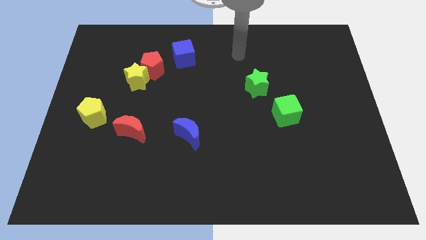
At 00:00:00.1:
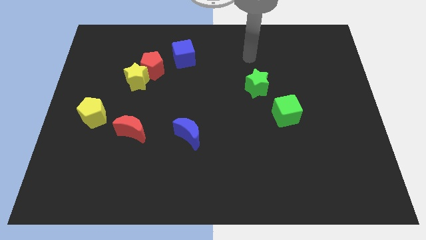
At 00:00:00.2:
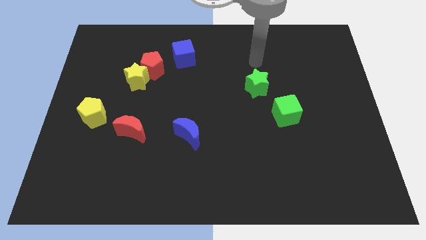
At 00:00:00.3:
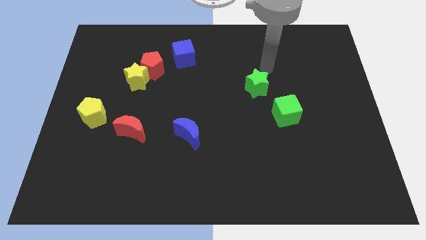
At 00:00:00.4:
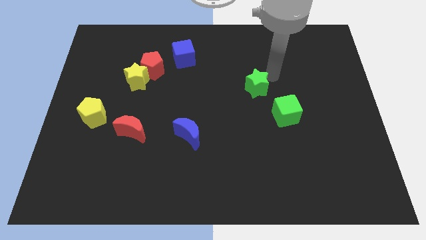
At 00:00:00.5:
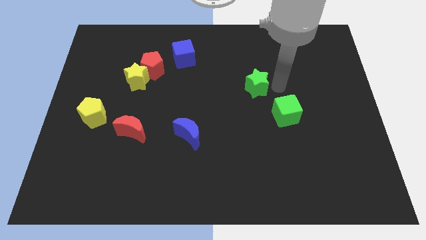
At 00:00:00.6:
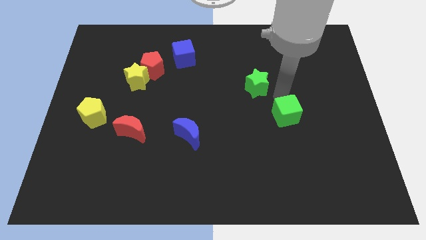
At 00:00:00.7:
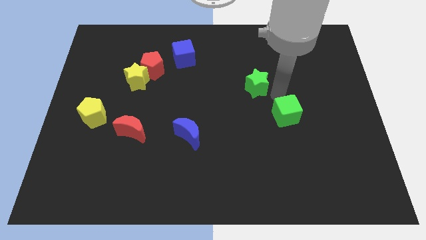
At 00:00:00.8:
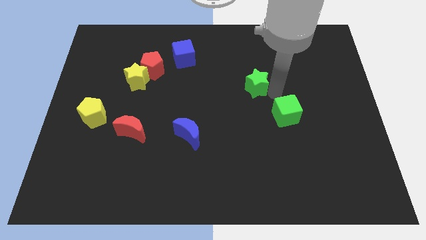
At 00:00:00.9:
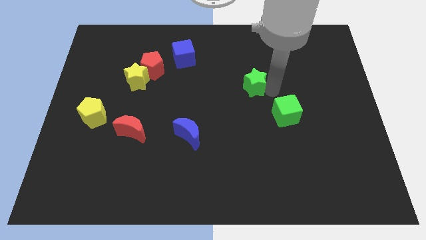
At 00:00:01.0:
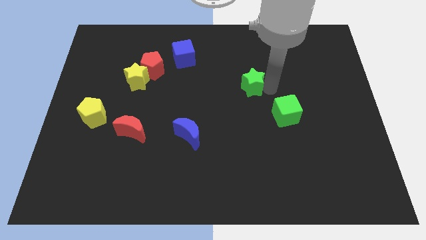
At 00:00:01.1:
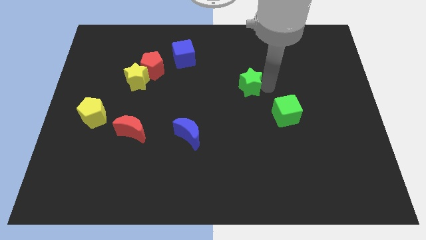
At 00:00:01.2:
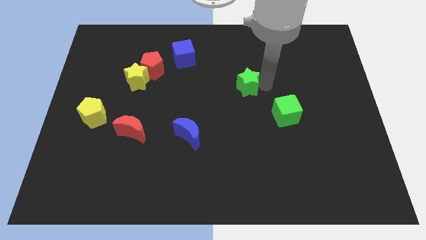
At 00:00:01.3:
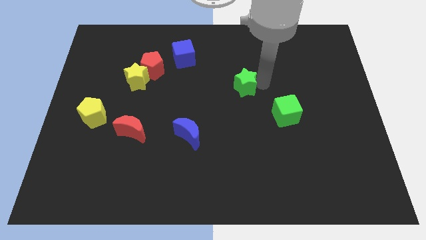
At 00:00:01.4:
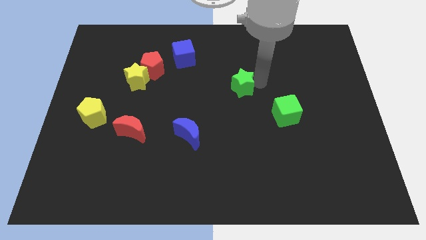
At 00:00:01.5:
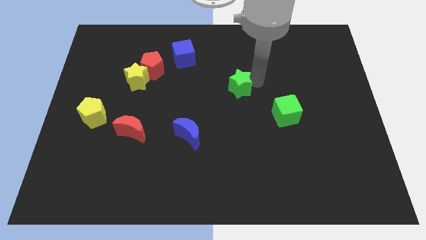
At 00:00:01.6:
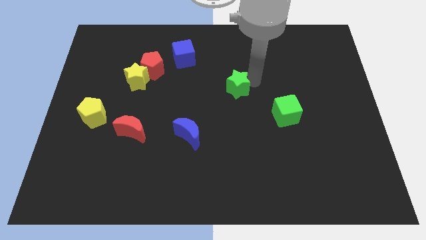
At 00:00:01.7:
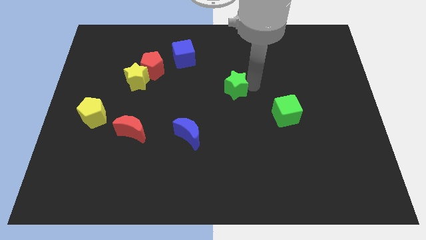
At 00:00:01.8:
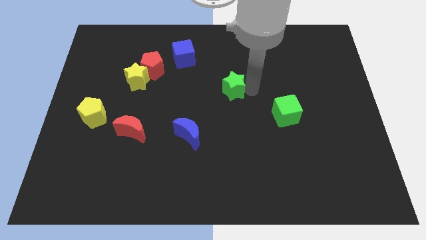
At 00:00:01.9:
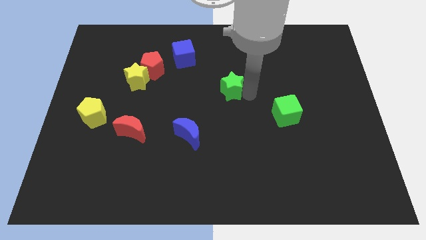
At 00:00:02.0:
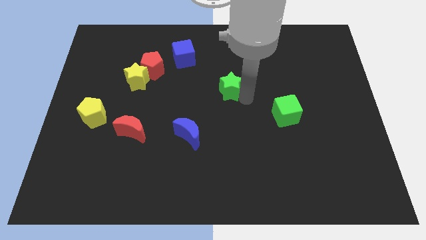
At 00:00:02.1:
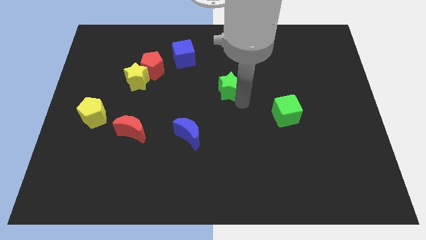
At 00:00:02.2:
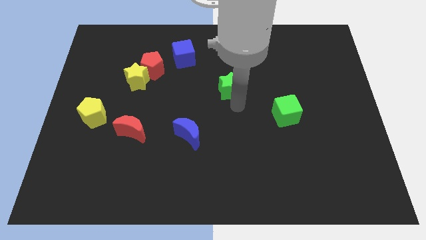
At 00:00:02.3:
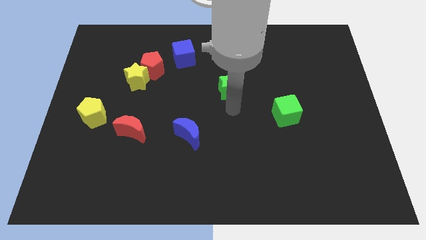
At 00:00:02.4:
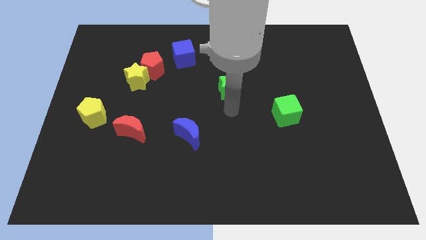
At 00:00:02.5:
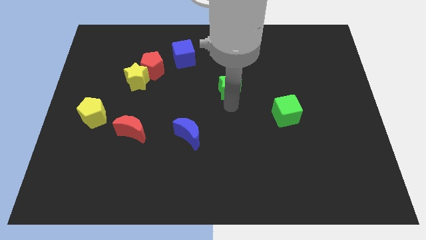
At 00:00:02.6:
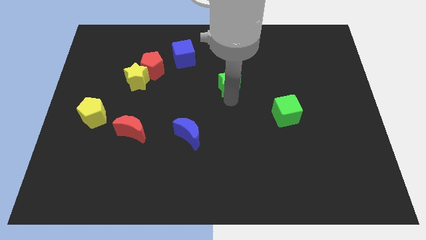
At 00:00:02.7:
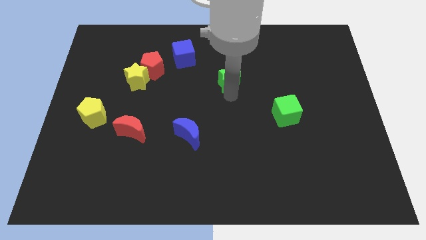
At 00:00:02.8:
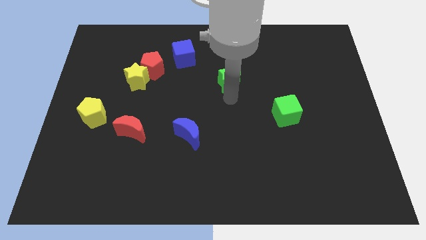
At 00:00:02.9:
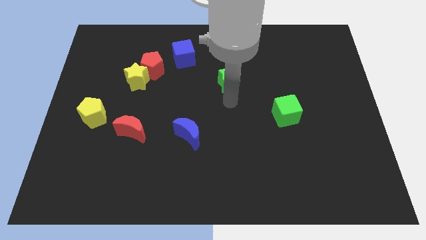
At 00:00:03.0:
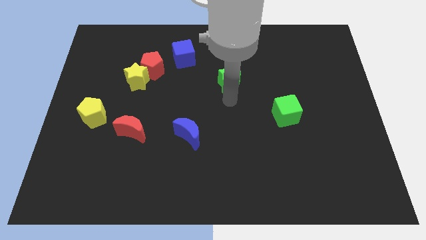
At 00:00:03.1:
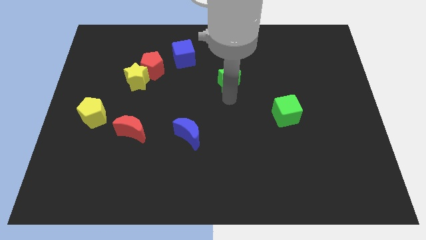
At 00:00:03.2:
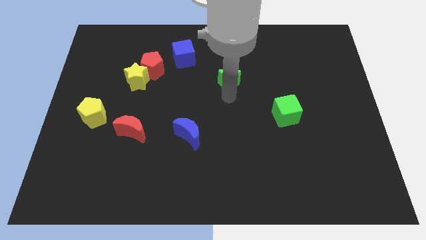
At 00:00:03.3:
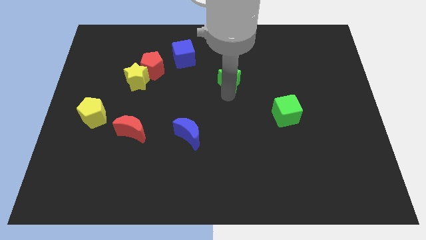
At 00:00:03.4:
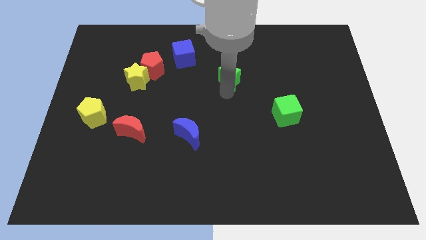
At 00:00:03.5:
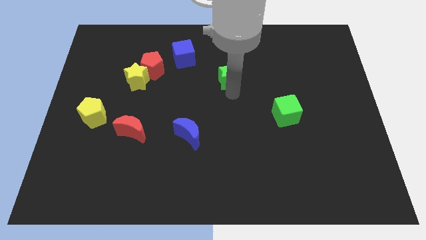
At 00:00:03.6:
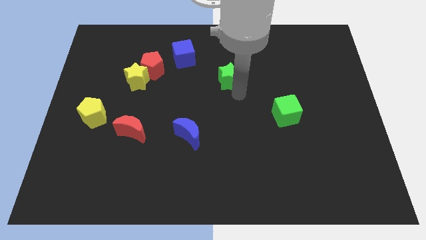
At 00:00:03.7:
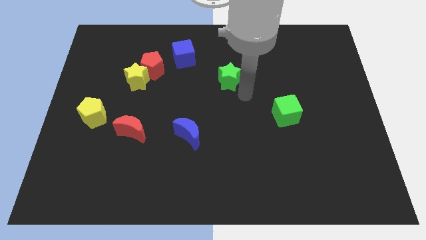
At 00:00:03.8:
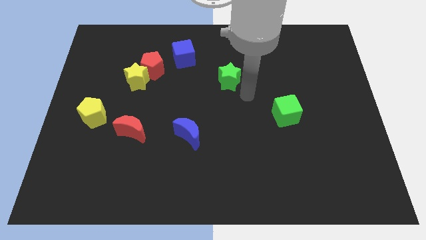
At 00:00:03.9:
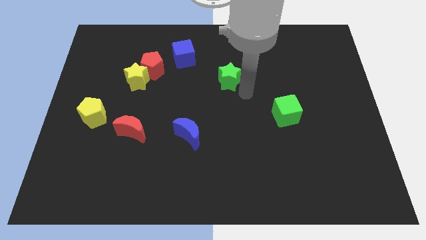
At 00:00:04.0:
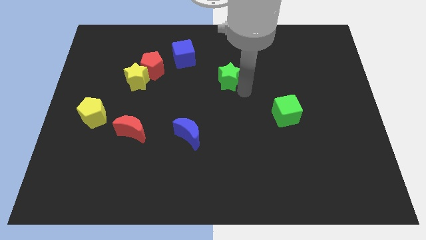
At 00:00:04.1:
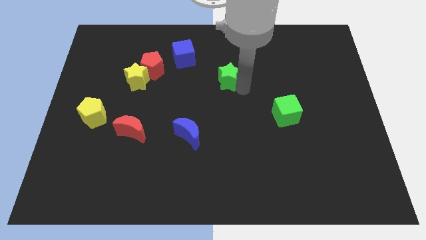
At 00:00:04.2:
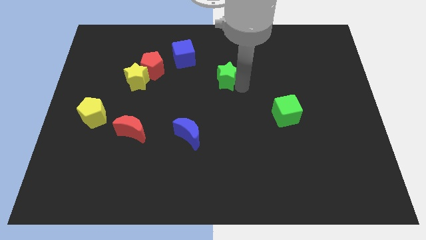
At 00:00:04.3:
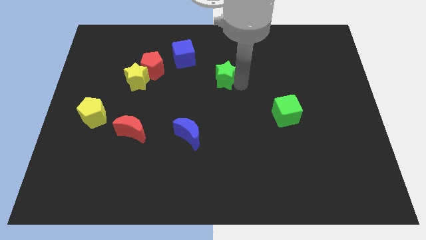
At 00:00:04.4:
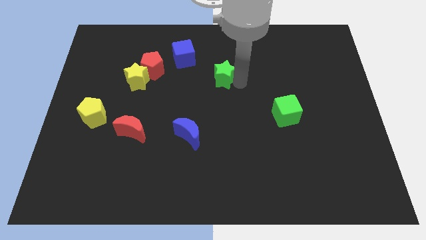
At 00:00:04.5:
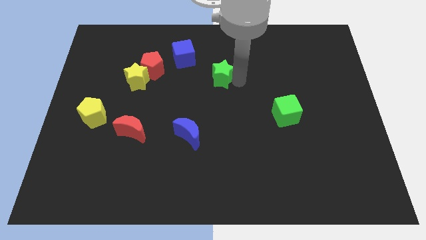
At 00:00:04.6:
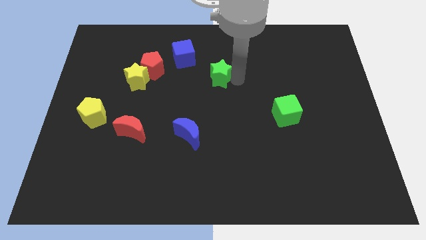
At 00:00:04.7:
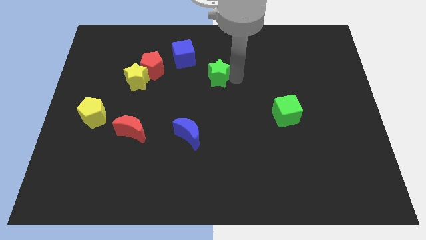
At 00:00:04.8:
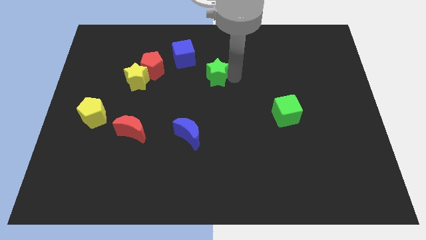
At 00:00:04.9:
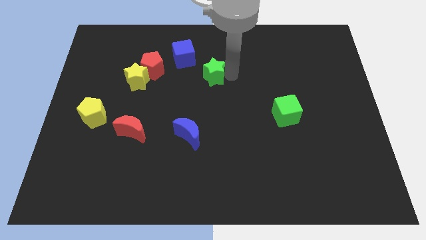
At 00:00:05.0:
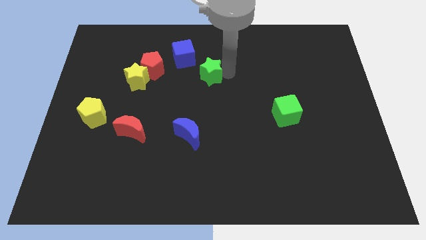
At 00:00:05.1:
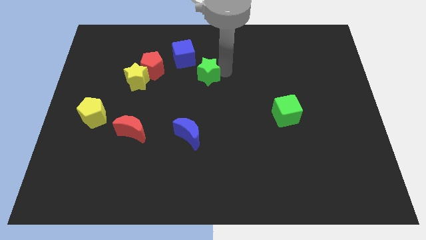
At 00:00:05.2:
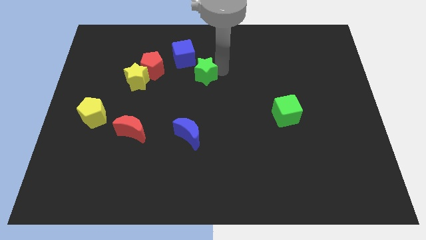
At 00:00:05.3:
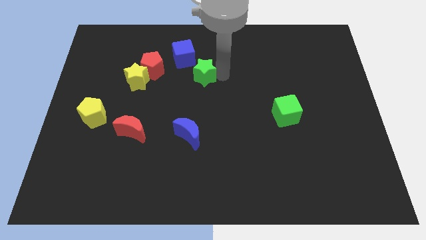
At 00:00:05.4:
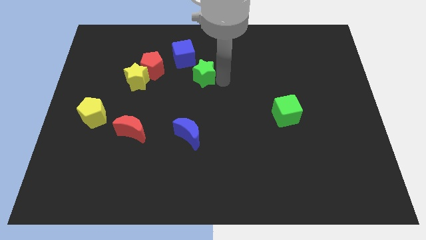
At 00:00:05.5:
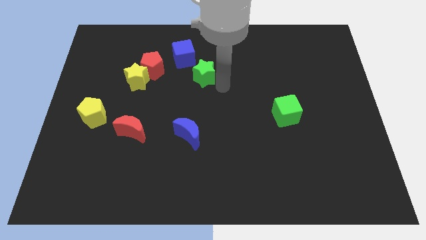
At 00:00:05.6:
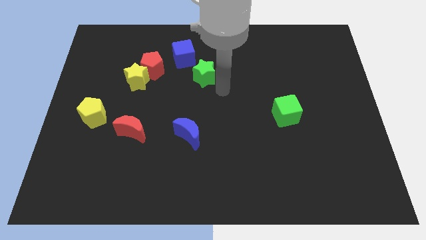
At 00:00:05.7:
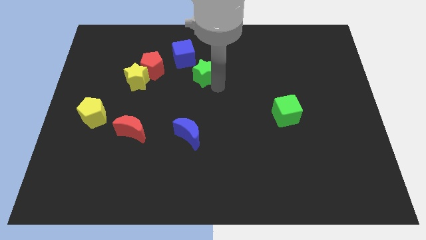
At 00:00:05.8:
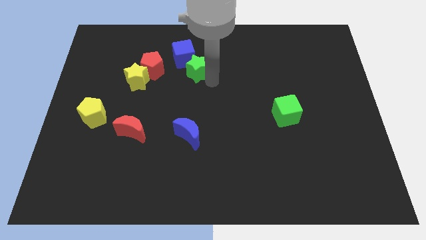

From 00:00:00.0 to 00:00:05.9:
move the green star towards the blue cube

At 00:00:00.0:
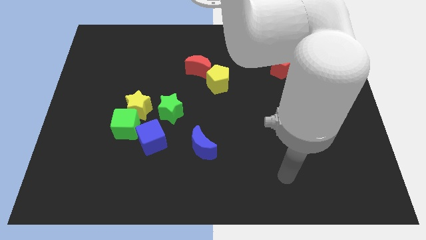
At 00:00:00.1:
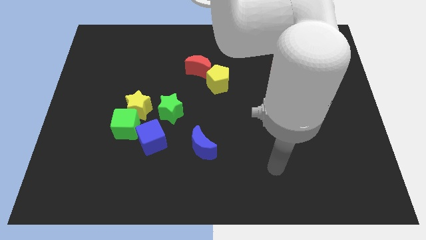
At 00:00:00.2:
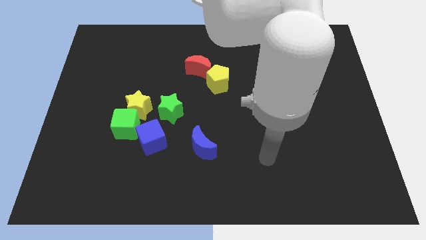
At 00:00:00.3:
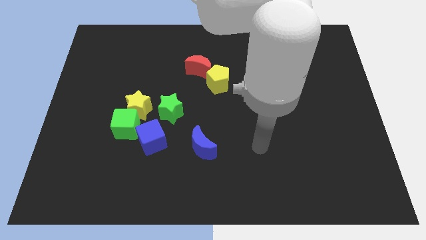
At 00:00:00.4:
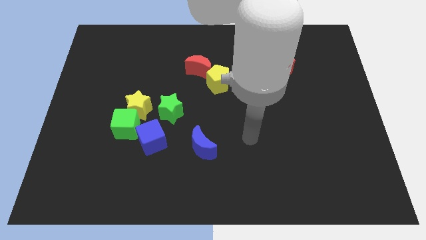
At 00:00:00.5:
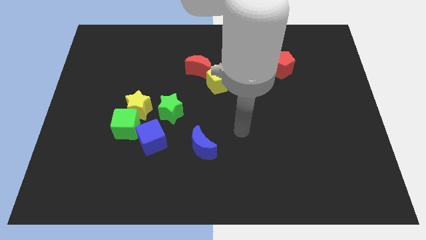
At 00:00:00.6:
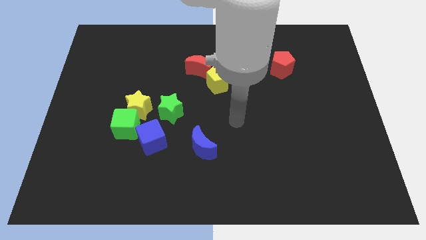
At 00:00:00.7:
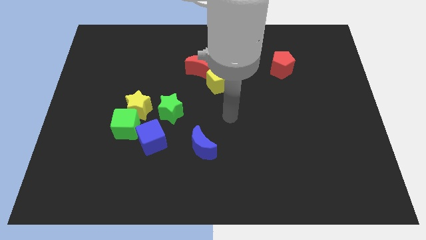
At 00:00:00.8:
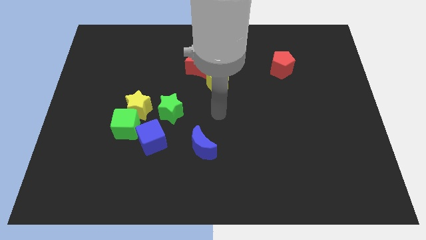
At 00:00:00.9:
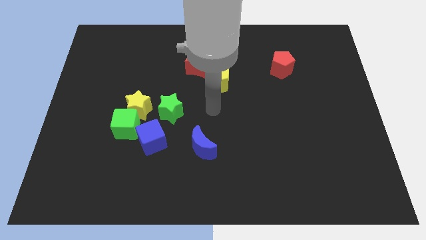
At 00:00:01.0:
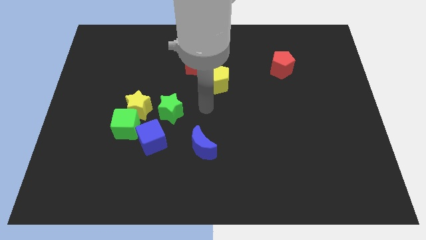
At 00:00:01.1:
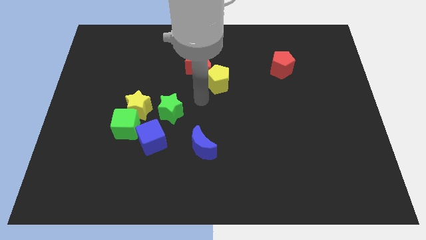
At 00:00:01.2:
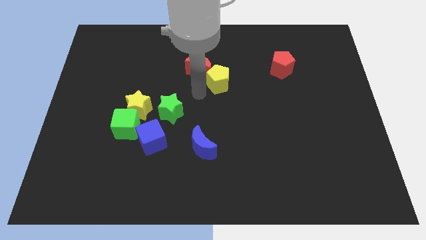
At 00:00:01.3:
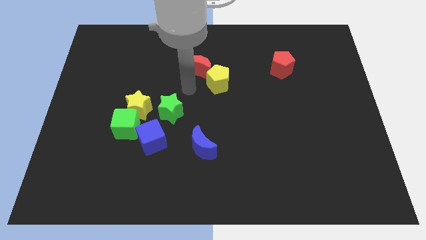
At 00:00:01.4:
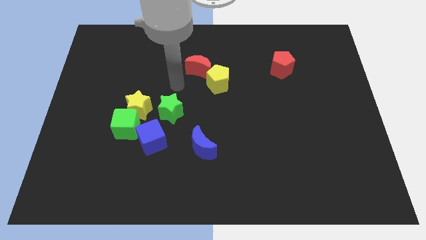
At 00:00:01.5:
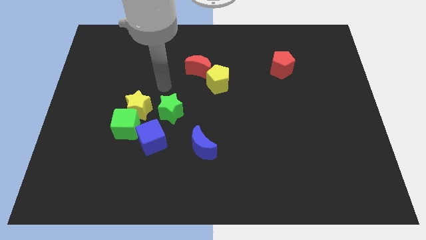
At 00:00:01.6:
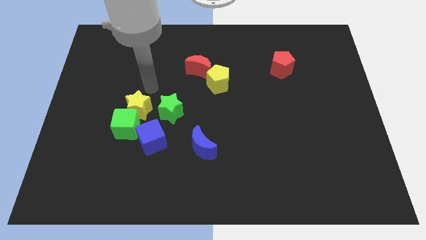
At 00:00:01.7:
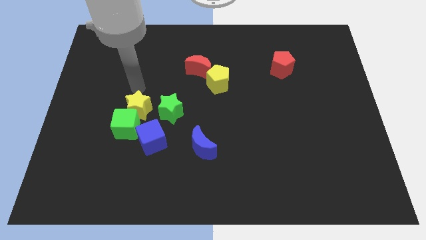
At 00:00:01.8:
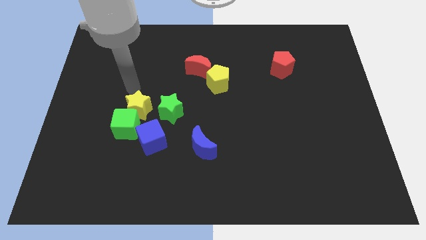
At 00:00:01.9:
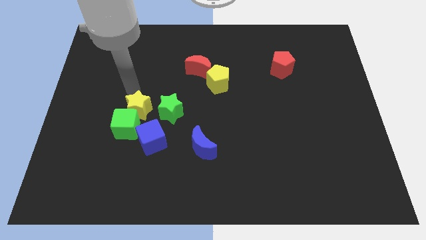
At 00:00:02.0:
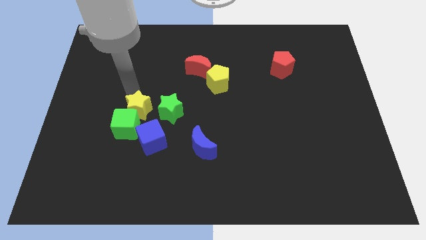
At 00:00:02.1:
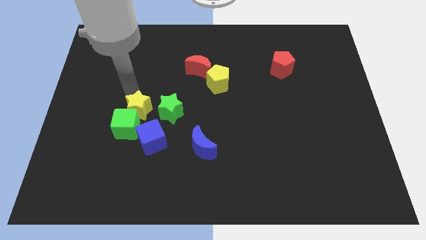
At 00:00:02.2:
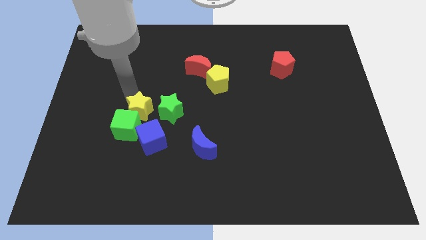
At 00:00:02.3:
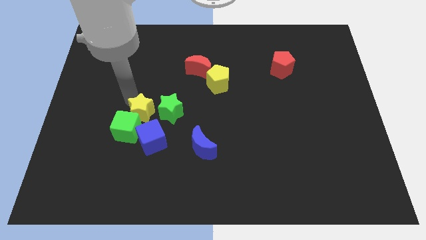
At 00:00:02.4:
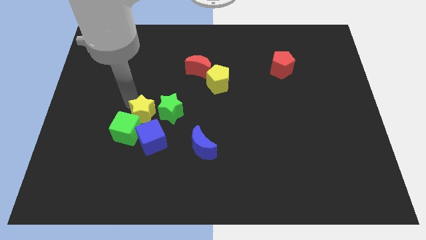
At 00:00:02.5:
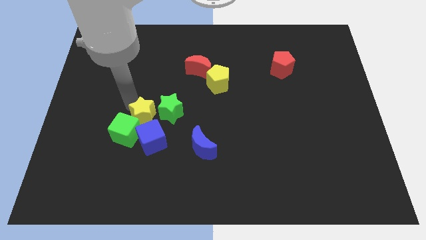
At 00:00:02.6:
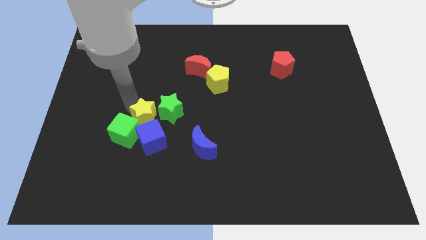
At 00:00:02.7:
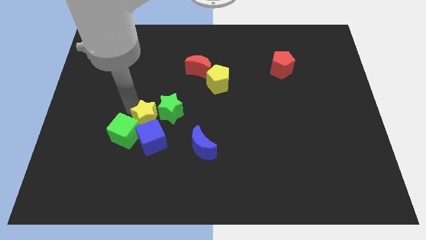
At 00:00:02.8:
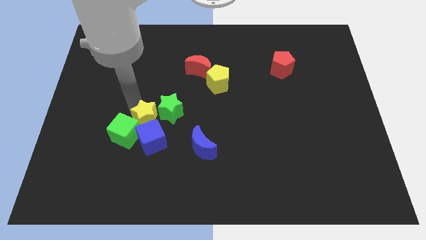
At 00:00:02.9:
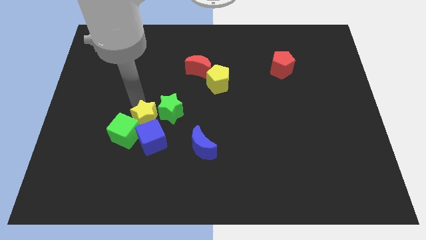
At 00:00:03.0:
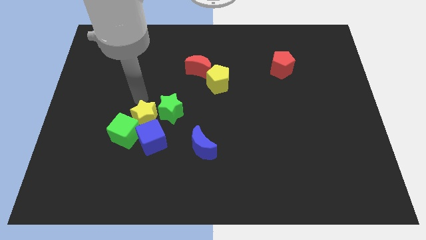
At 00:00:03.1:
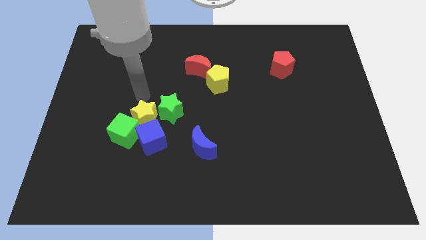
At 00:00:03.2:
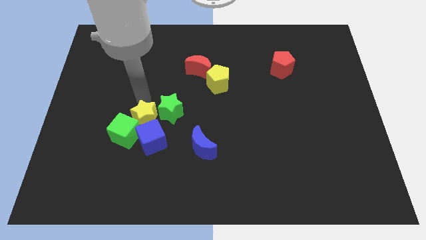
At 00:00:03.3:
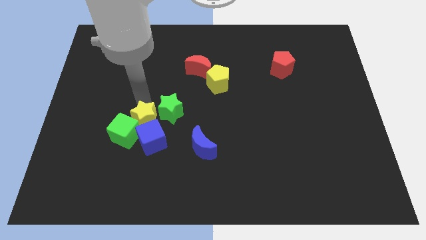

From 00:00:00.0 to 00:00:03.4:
push the yellow star to the blue cube
